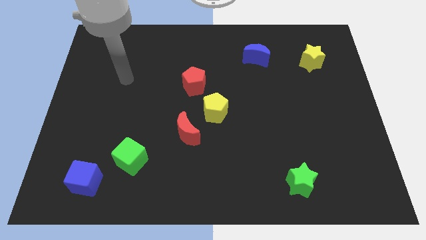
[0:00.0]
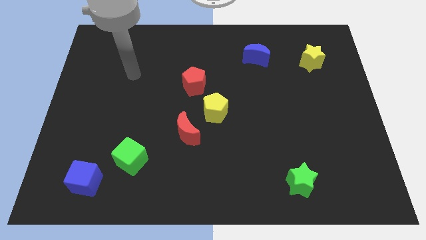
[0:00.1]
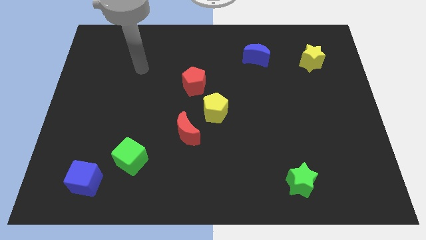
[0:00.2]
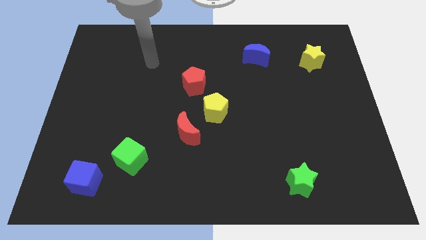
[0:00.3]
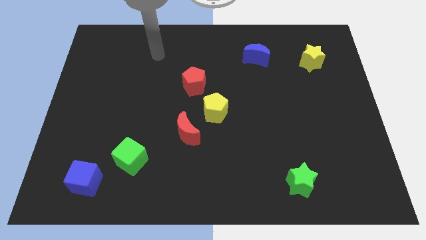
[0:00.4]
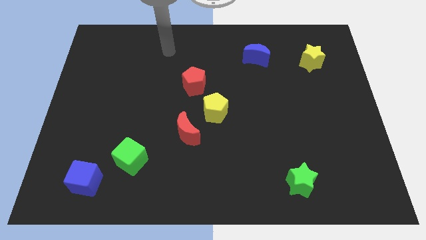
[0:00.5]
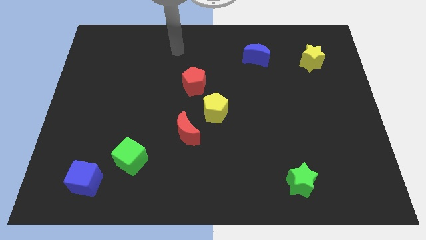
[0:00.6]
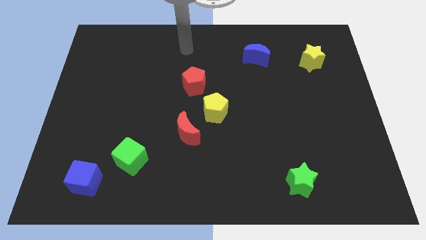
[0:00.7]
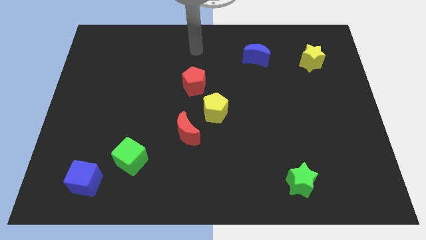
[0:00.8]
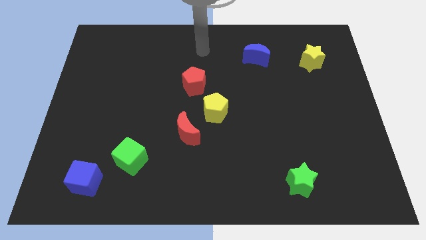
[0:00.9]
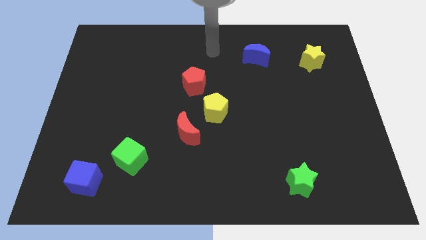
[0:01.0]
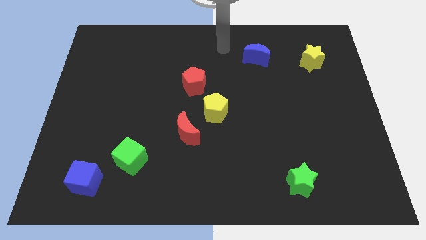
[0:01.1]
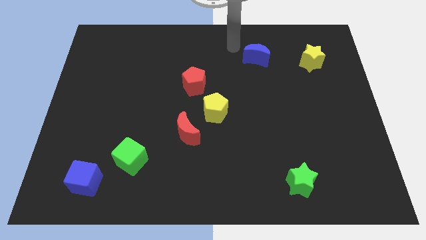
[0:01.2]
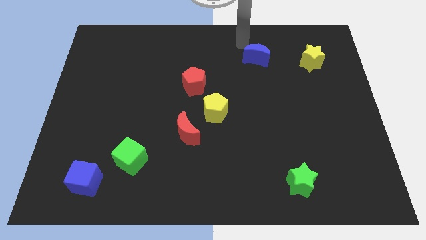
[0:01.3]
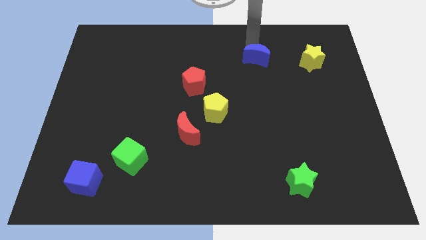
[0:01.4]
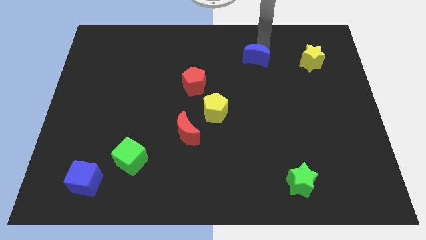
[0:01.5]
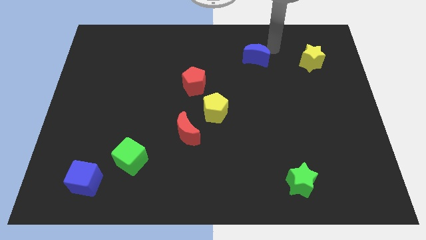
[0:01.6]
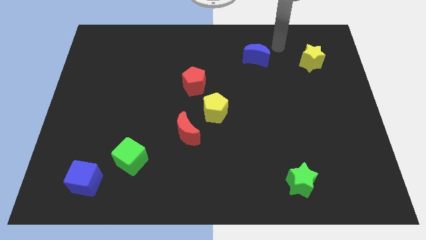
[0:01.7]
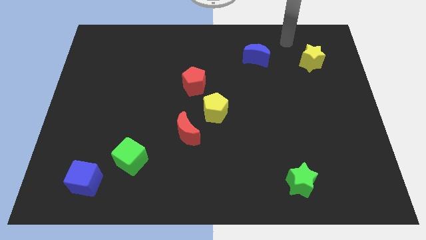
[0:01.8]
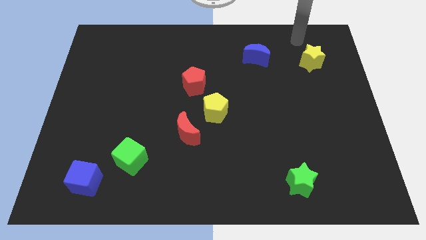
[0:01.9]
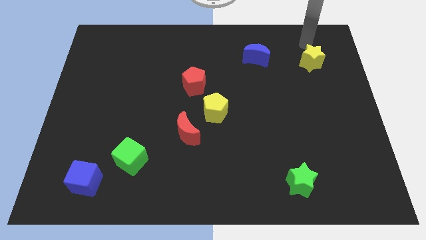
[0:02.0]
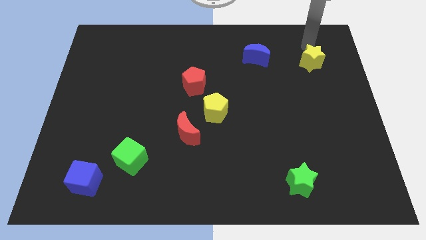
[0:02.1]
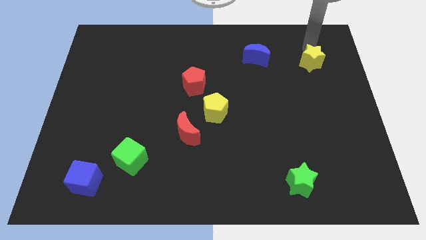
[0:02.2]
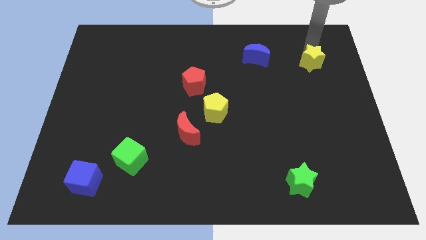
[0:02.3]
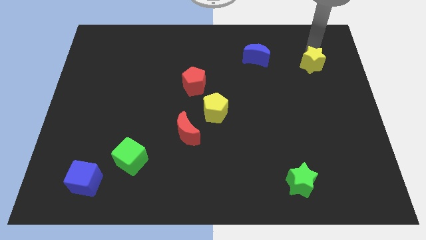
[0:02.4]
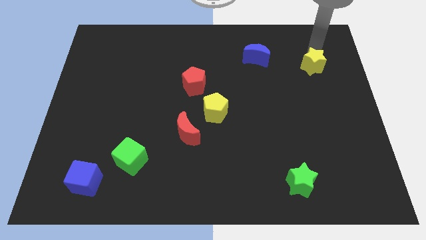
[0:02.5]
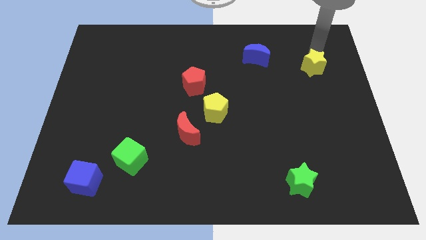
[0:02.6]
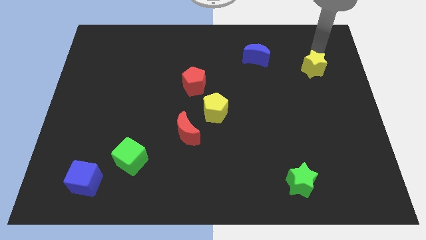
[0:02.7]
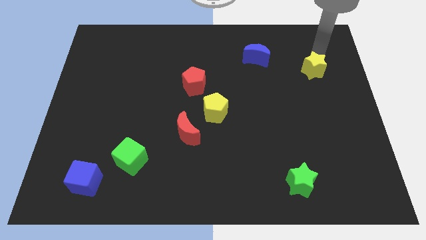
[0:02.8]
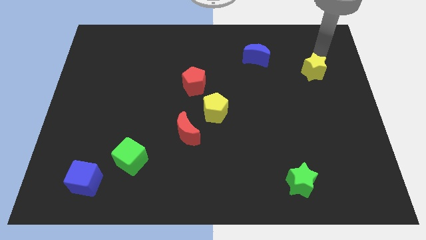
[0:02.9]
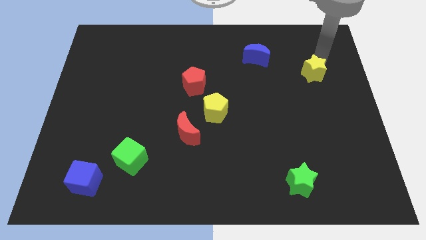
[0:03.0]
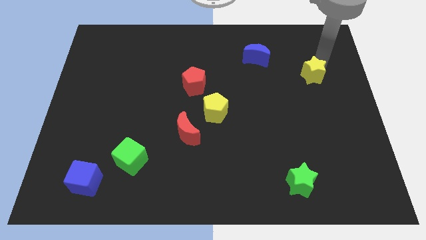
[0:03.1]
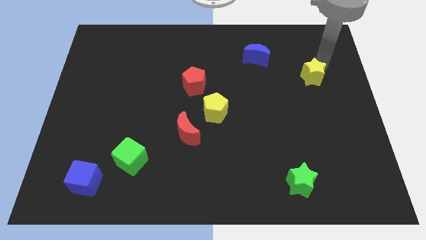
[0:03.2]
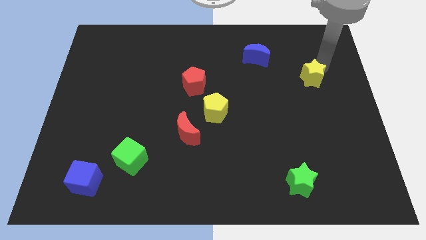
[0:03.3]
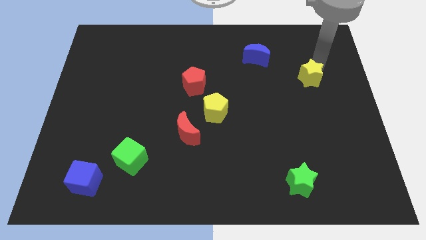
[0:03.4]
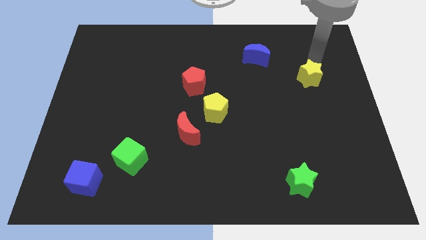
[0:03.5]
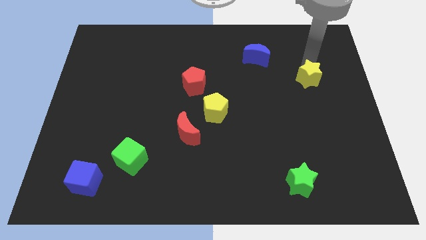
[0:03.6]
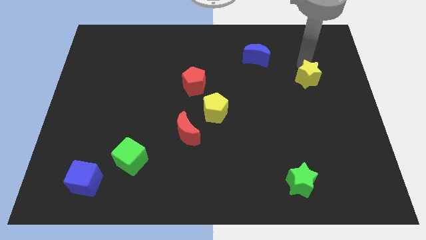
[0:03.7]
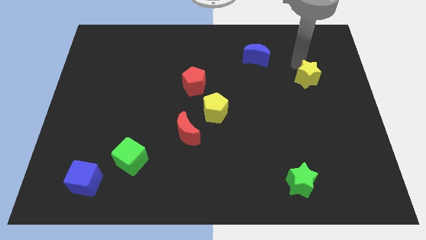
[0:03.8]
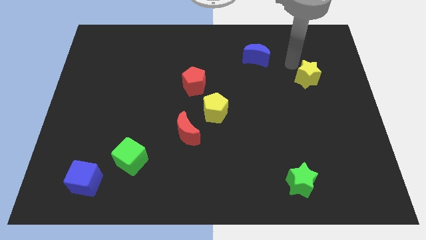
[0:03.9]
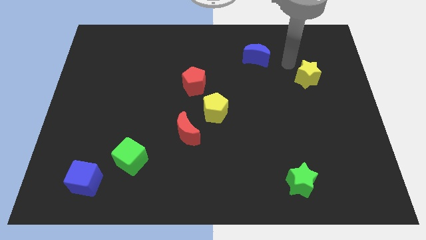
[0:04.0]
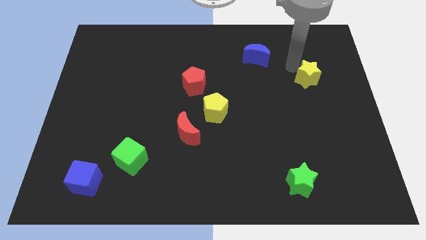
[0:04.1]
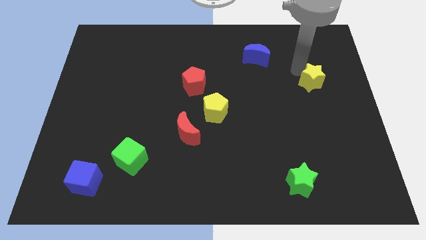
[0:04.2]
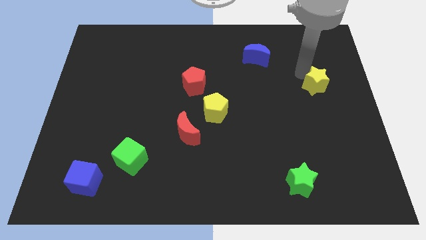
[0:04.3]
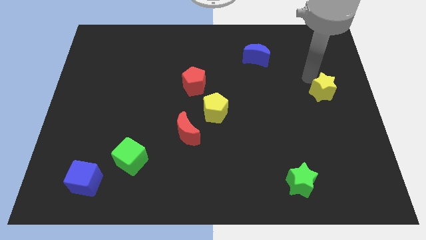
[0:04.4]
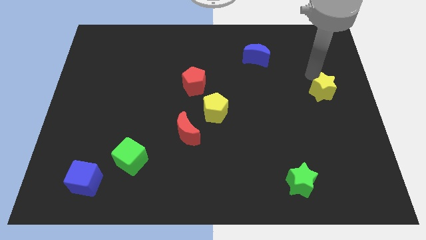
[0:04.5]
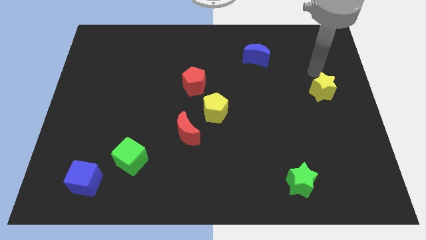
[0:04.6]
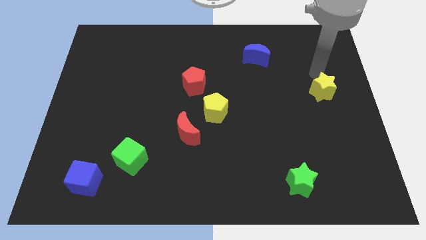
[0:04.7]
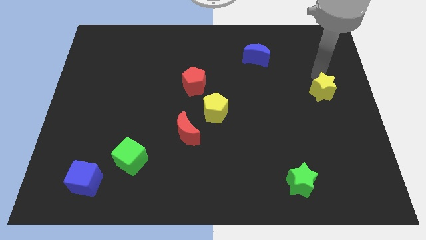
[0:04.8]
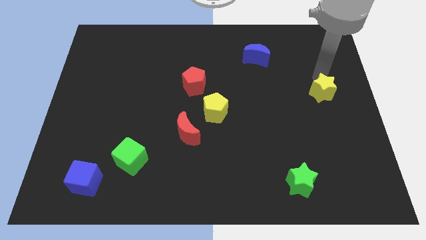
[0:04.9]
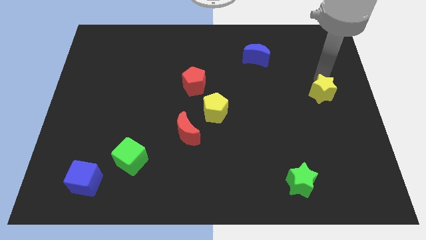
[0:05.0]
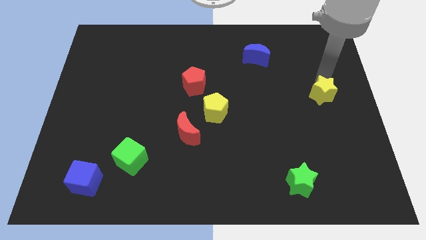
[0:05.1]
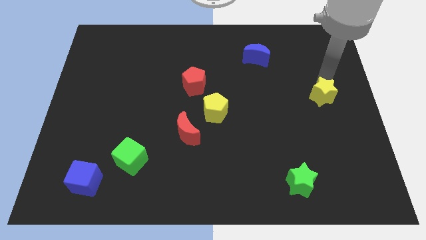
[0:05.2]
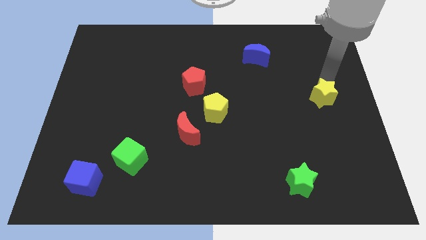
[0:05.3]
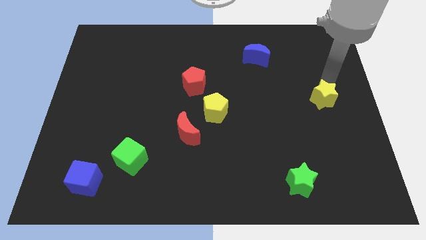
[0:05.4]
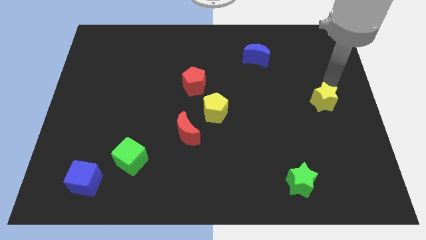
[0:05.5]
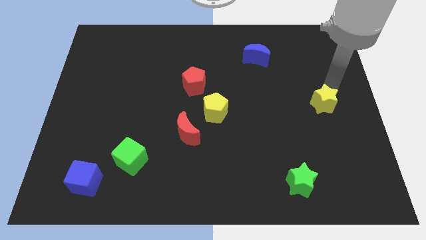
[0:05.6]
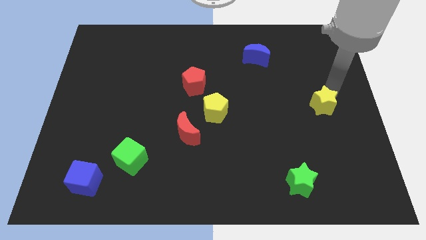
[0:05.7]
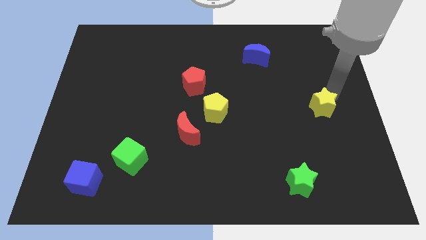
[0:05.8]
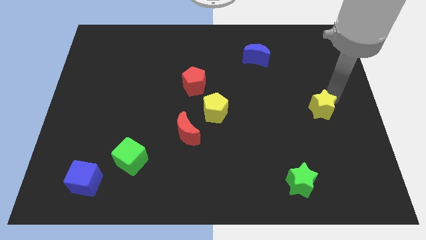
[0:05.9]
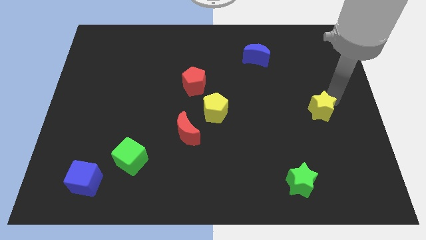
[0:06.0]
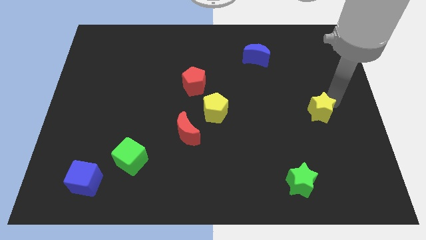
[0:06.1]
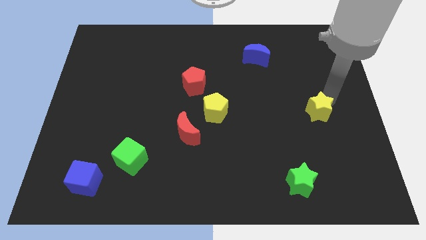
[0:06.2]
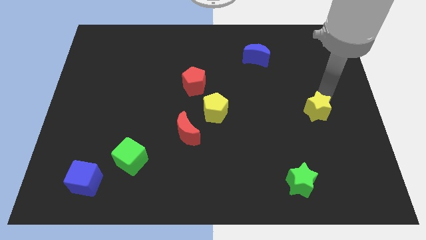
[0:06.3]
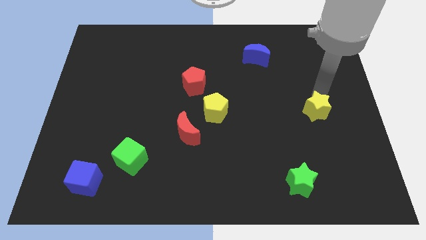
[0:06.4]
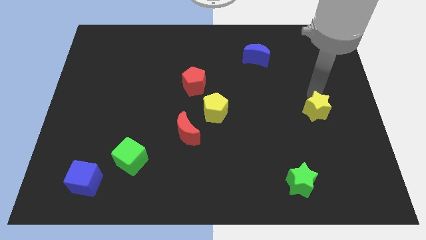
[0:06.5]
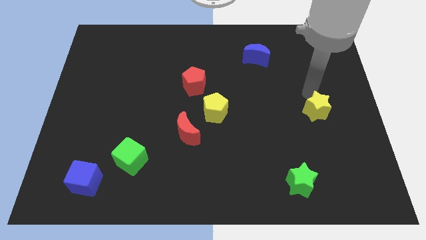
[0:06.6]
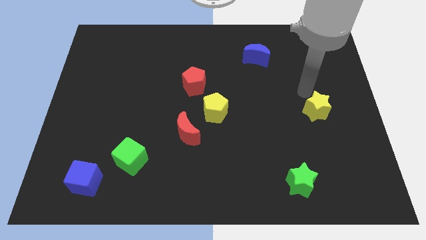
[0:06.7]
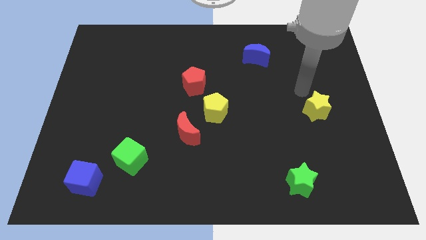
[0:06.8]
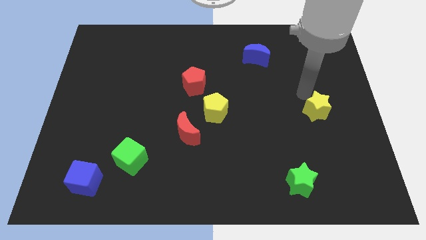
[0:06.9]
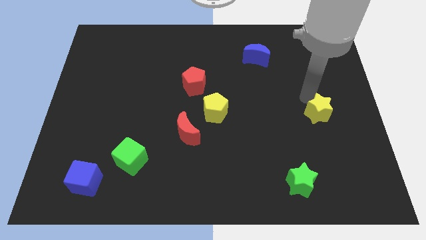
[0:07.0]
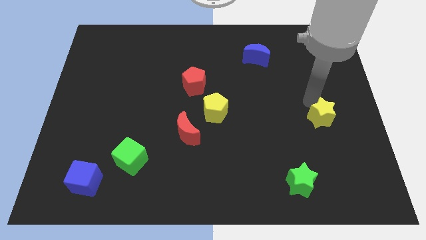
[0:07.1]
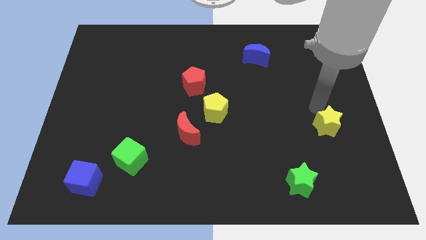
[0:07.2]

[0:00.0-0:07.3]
push the yellow star down

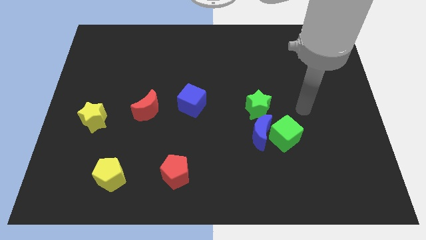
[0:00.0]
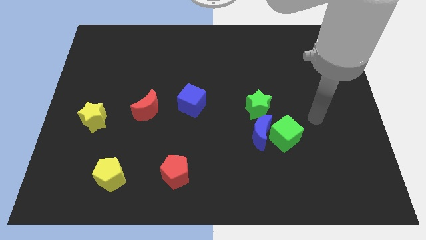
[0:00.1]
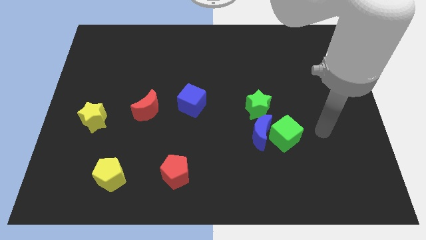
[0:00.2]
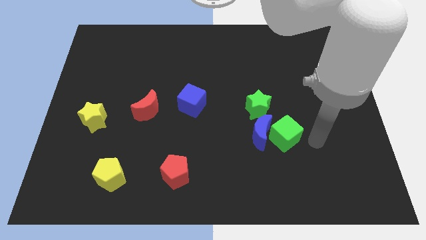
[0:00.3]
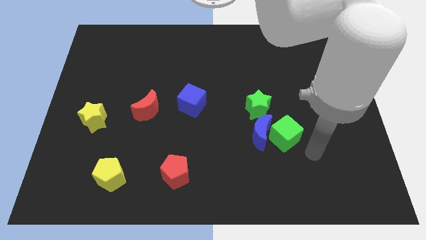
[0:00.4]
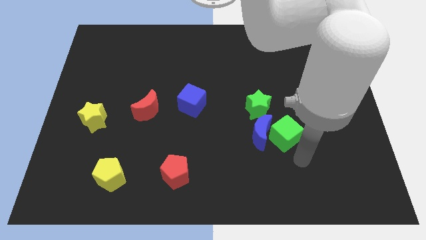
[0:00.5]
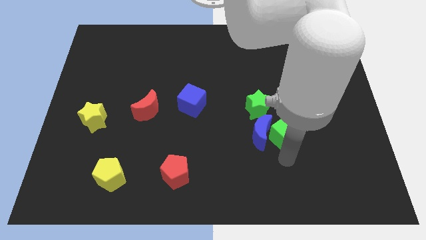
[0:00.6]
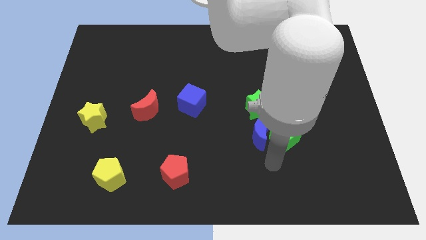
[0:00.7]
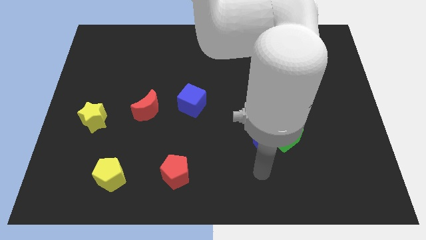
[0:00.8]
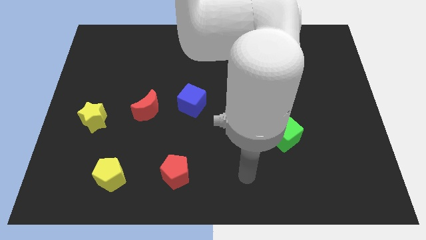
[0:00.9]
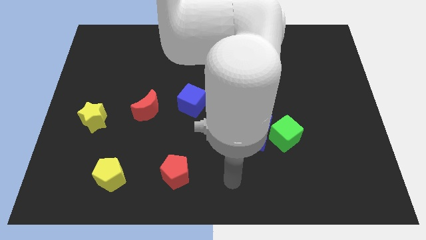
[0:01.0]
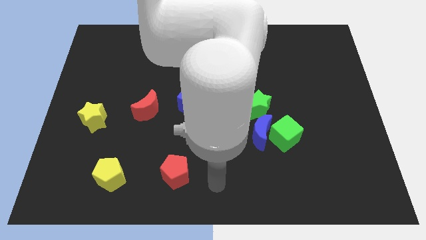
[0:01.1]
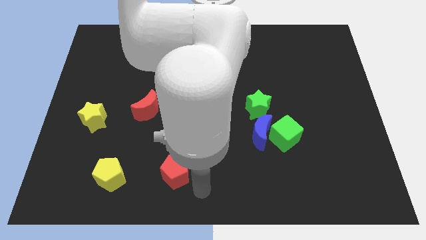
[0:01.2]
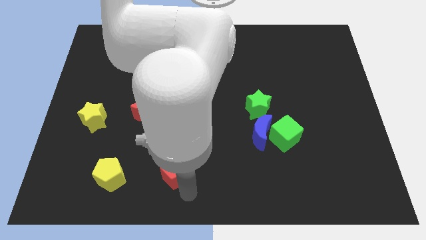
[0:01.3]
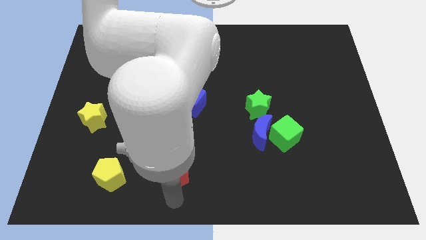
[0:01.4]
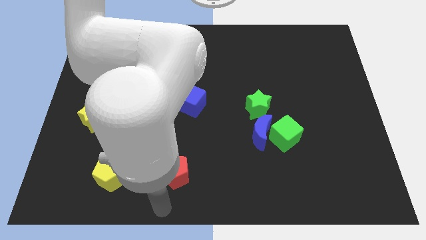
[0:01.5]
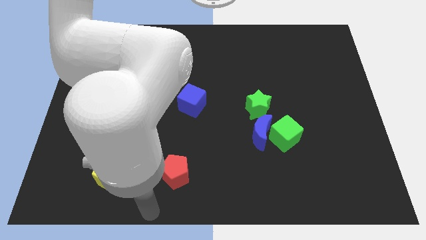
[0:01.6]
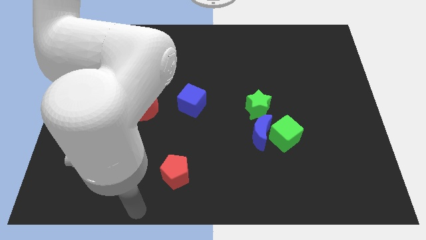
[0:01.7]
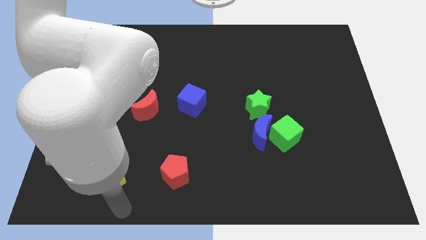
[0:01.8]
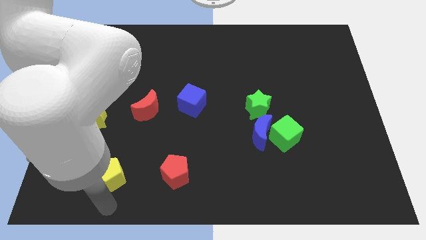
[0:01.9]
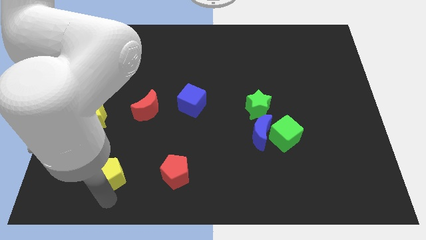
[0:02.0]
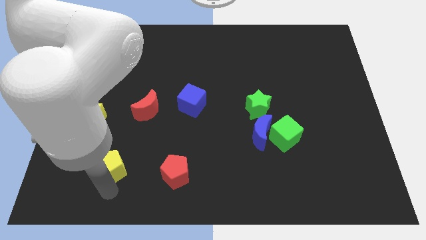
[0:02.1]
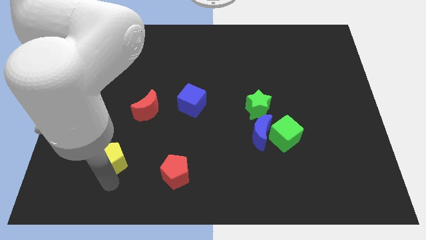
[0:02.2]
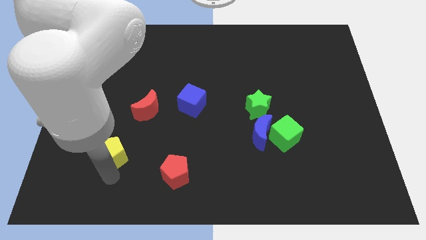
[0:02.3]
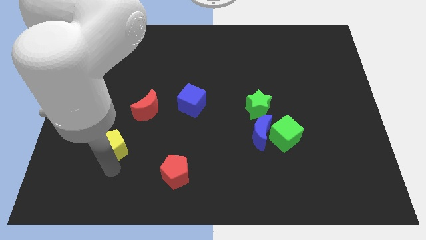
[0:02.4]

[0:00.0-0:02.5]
slide the yellow pentagon upwards a little bit
